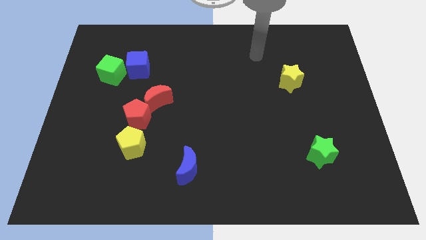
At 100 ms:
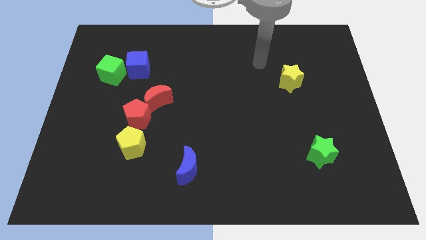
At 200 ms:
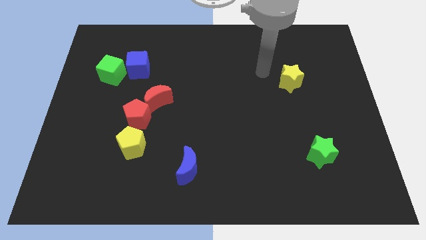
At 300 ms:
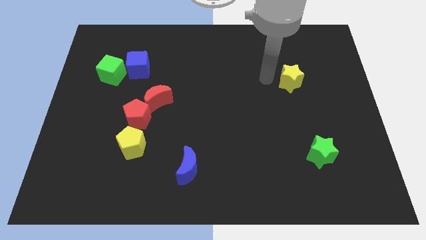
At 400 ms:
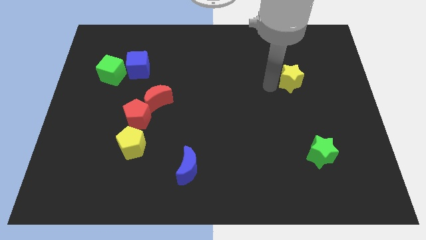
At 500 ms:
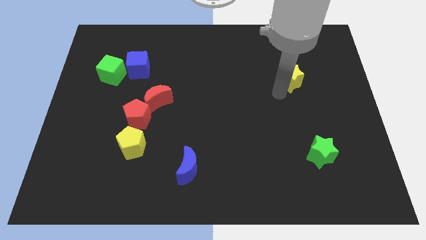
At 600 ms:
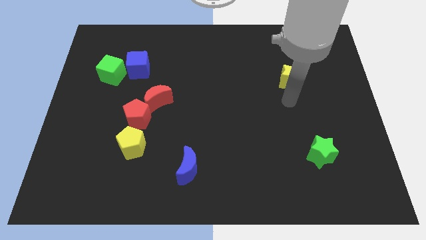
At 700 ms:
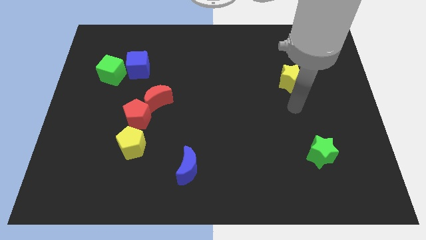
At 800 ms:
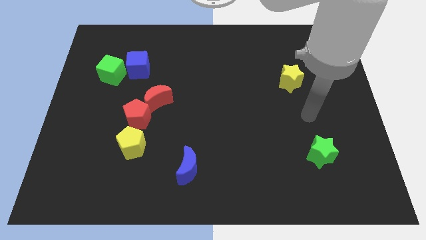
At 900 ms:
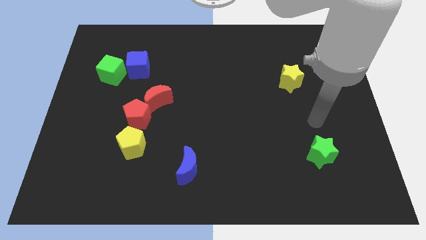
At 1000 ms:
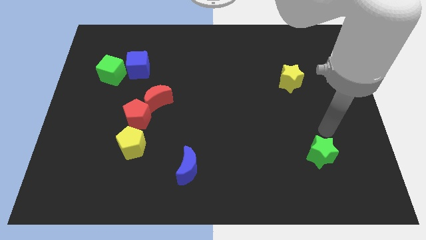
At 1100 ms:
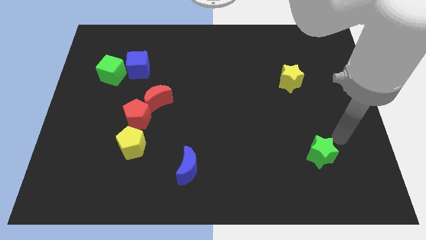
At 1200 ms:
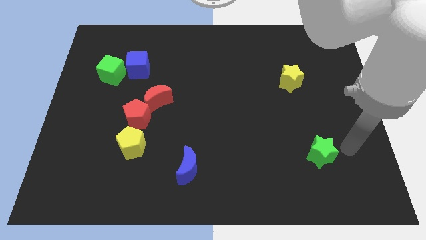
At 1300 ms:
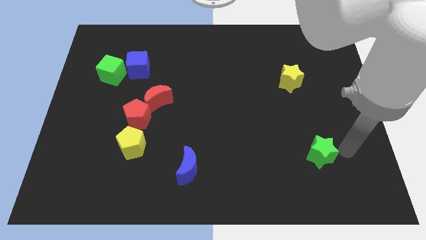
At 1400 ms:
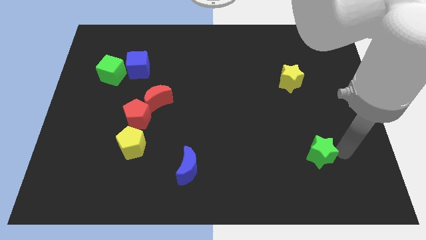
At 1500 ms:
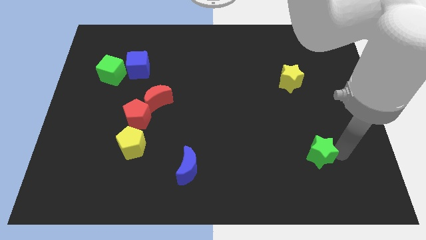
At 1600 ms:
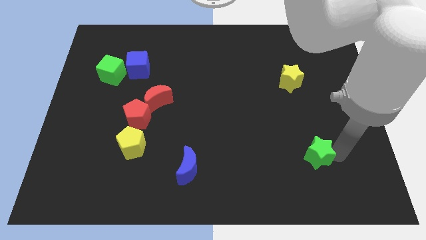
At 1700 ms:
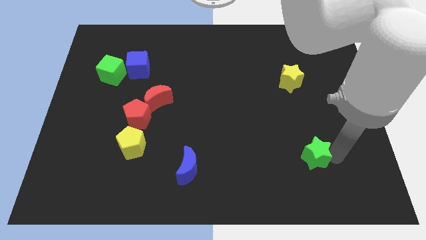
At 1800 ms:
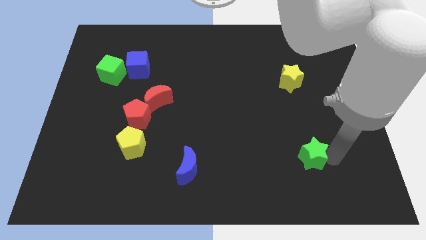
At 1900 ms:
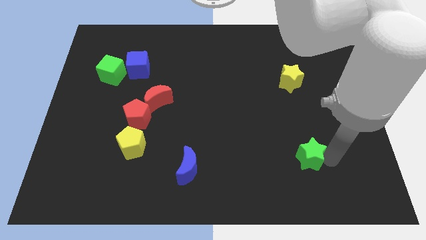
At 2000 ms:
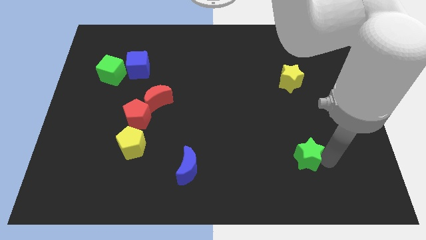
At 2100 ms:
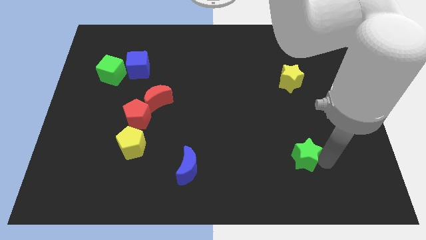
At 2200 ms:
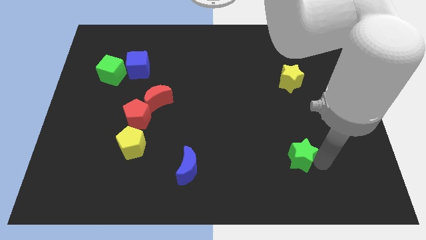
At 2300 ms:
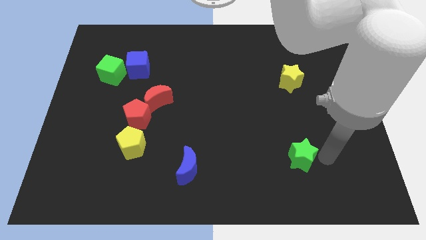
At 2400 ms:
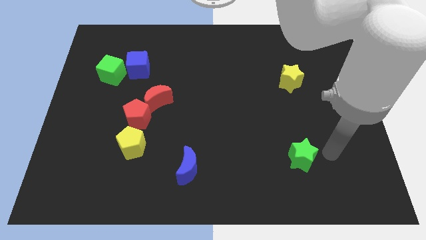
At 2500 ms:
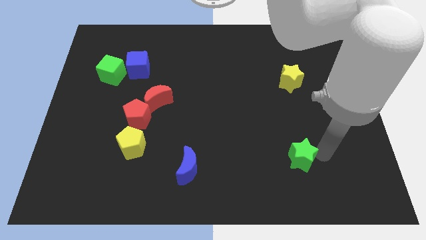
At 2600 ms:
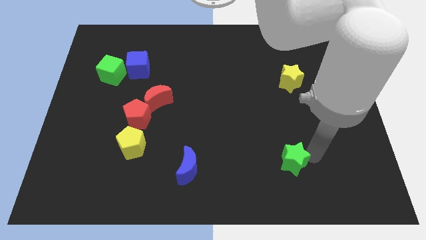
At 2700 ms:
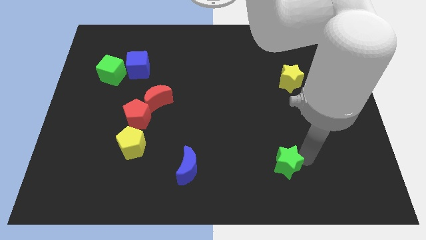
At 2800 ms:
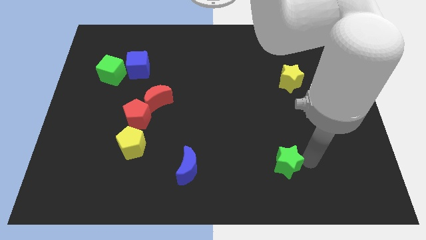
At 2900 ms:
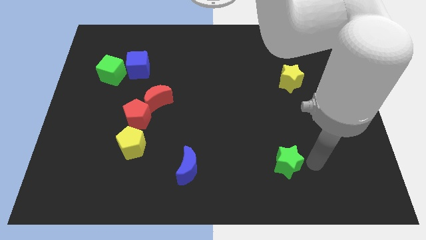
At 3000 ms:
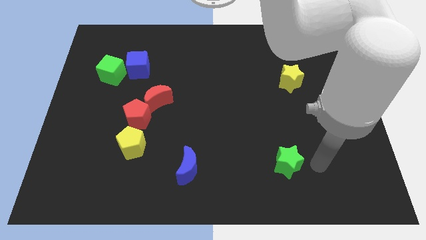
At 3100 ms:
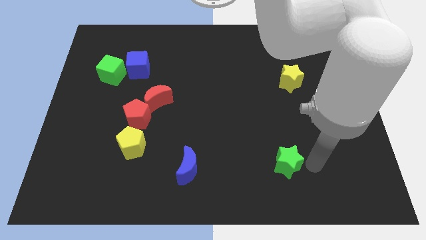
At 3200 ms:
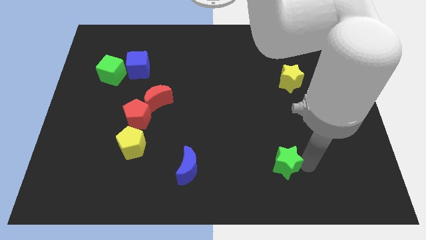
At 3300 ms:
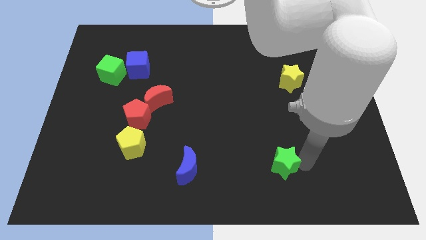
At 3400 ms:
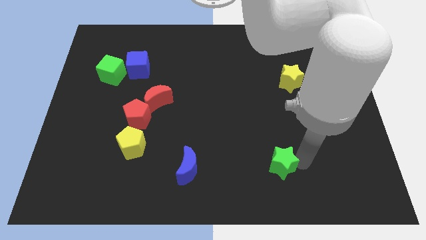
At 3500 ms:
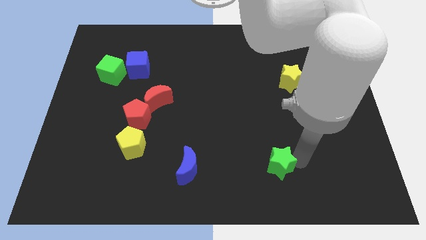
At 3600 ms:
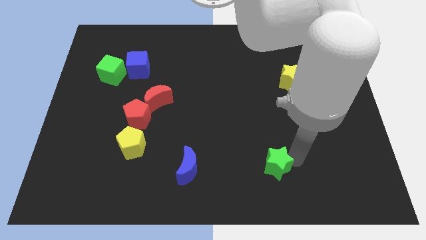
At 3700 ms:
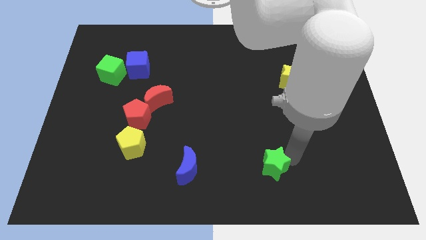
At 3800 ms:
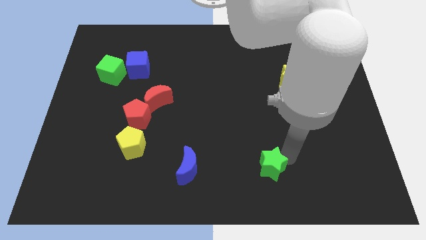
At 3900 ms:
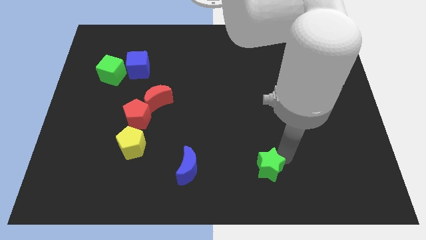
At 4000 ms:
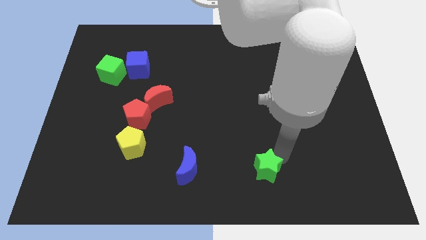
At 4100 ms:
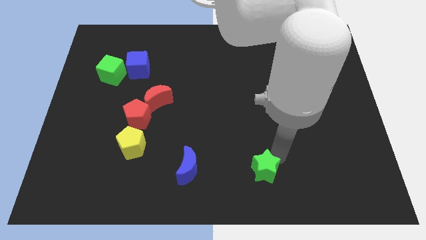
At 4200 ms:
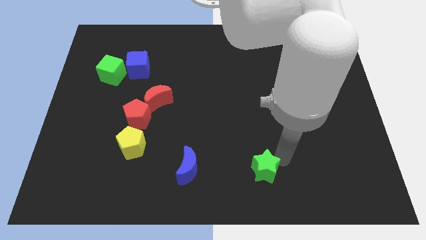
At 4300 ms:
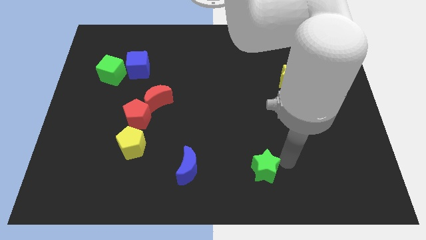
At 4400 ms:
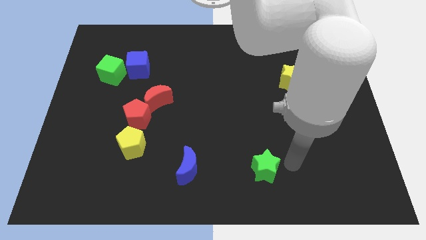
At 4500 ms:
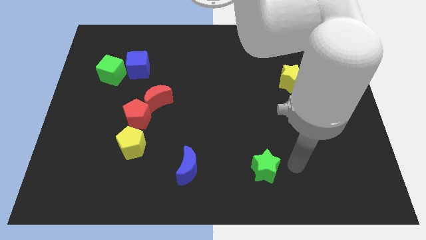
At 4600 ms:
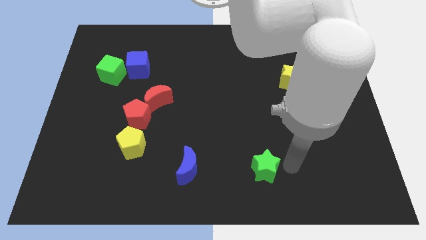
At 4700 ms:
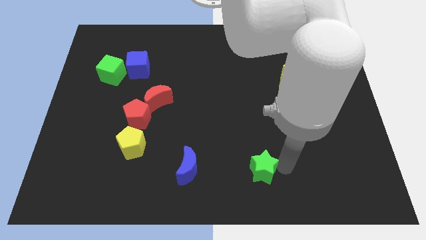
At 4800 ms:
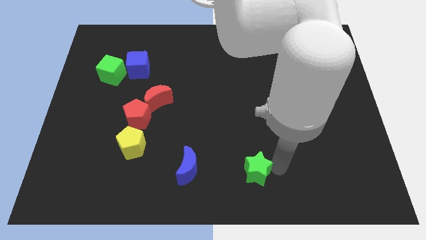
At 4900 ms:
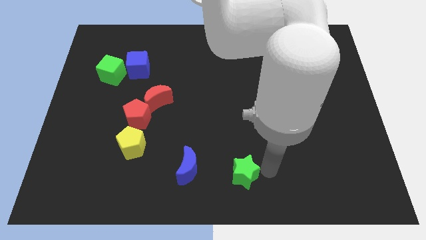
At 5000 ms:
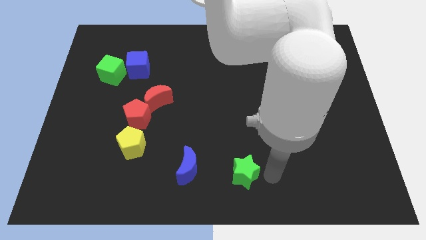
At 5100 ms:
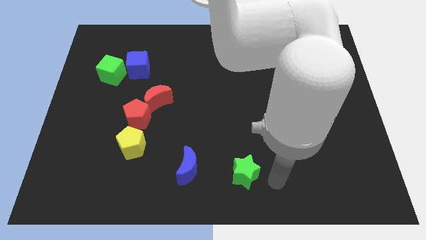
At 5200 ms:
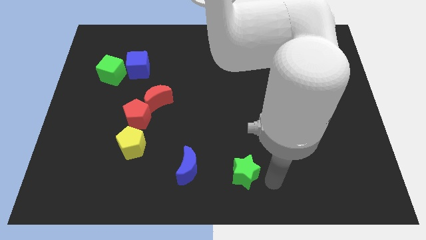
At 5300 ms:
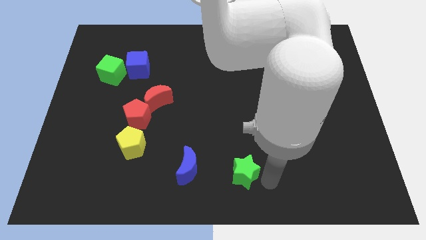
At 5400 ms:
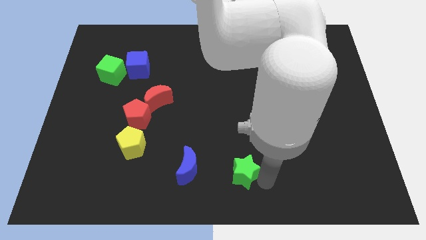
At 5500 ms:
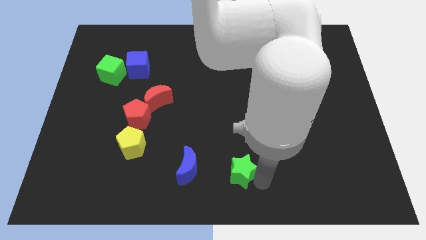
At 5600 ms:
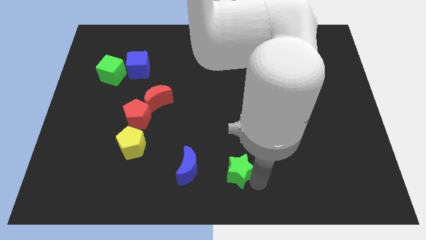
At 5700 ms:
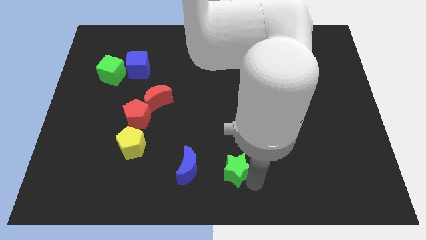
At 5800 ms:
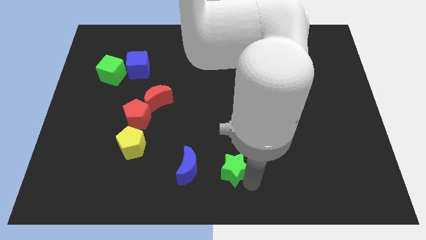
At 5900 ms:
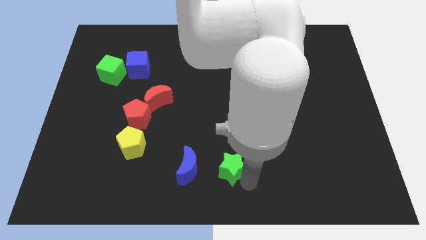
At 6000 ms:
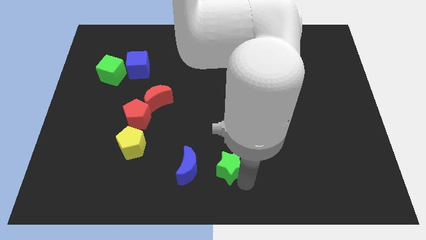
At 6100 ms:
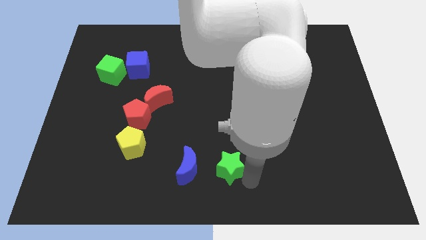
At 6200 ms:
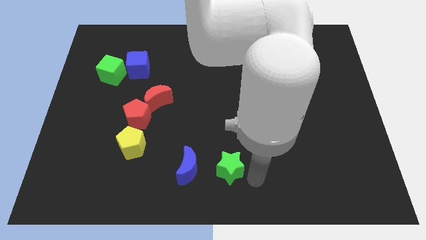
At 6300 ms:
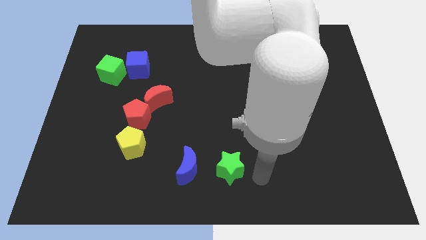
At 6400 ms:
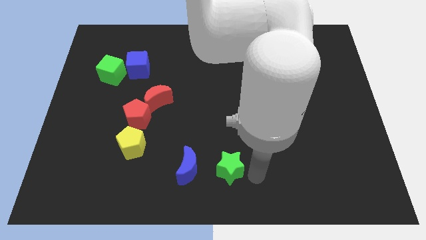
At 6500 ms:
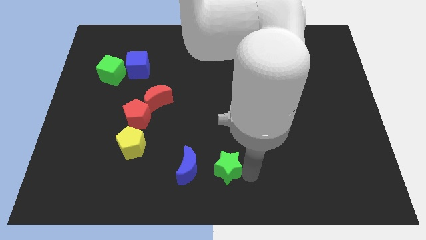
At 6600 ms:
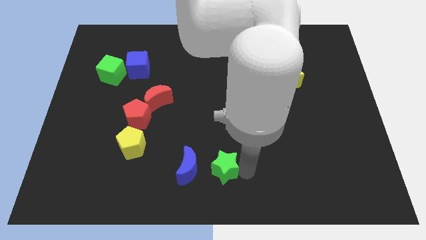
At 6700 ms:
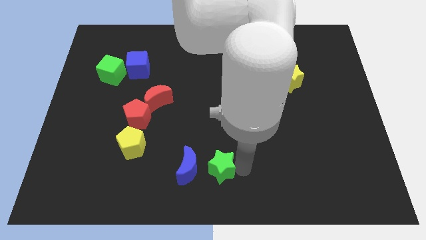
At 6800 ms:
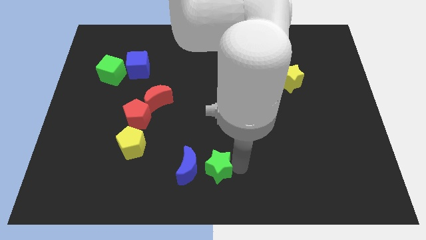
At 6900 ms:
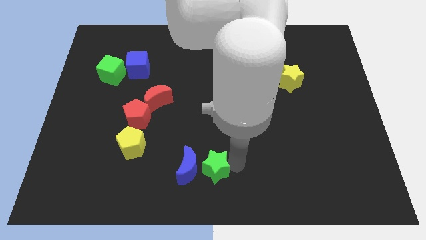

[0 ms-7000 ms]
push the green star close to the blue moon

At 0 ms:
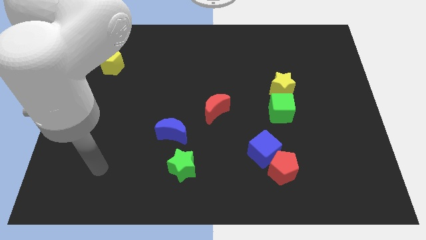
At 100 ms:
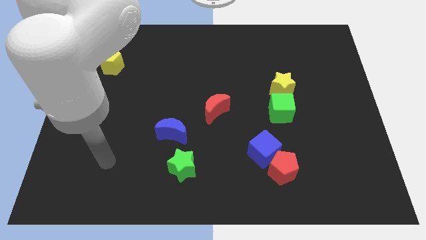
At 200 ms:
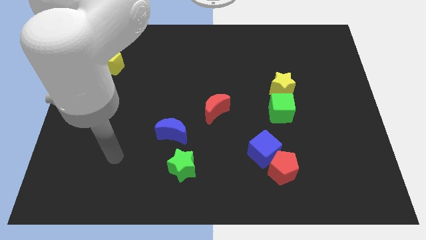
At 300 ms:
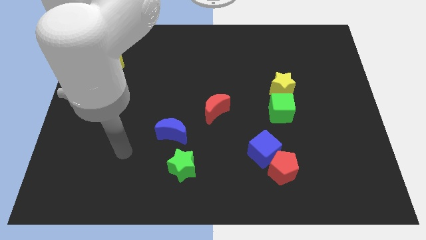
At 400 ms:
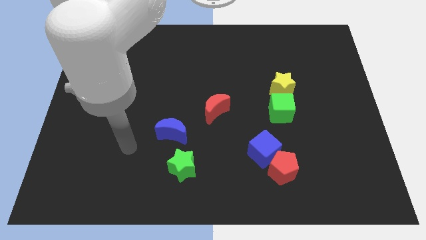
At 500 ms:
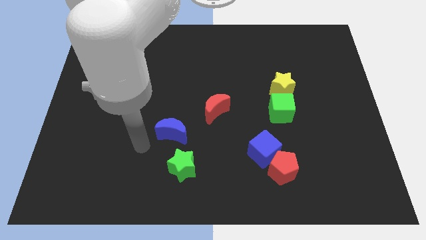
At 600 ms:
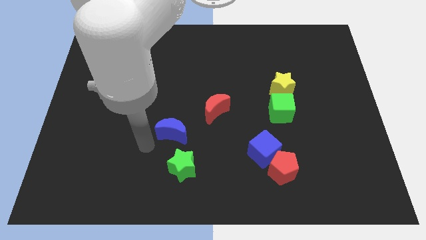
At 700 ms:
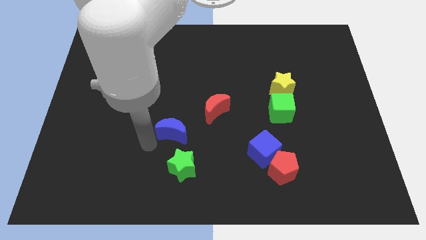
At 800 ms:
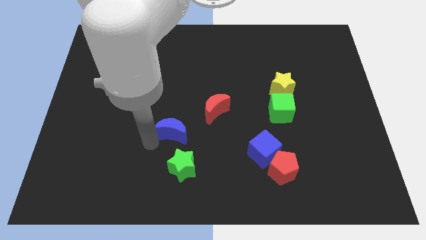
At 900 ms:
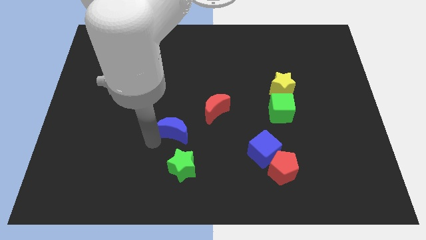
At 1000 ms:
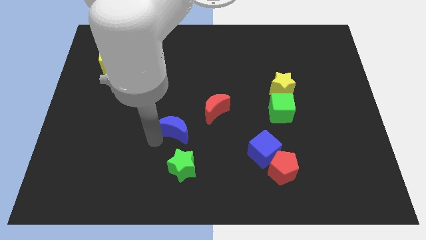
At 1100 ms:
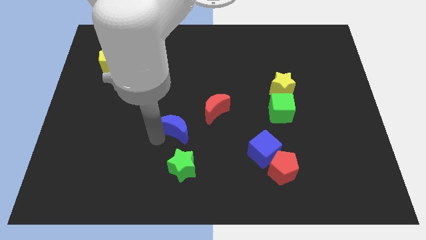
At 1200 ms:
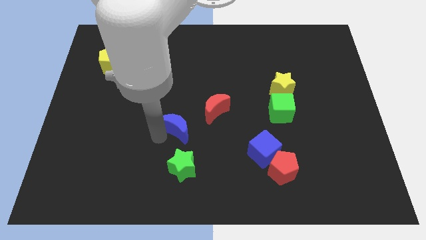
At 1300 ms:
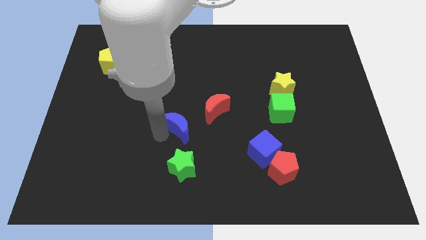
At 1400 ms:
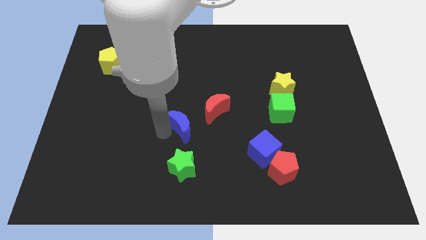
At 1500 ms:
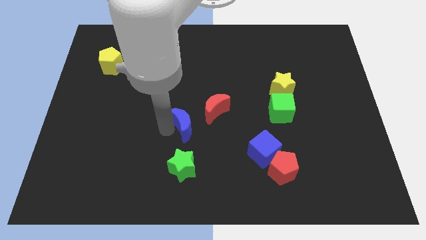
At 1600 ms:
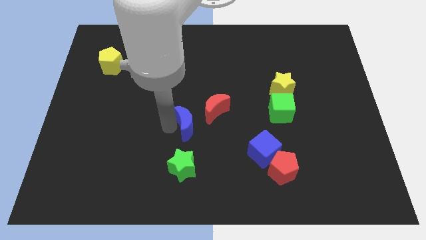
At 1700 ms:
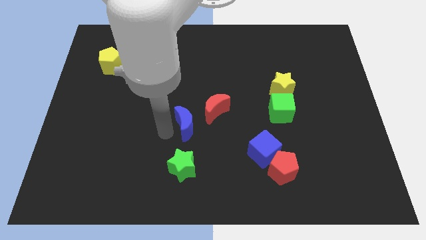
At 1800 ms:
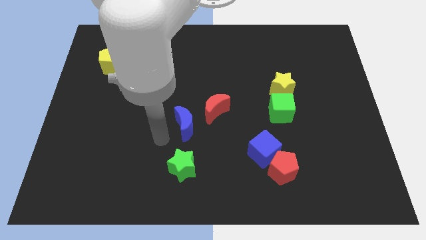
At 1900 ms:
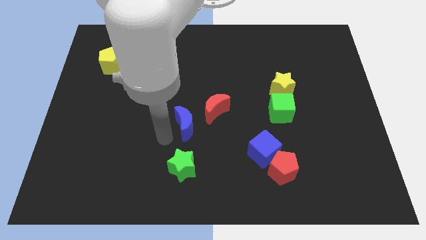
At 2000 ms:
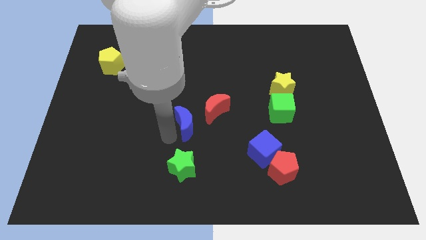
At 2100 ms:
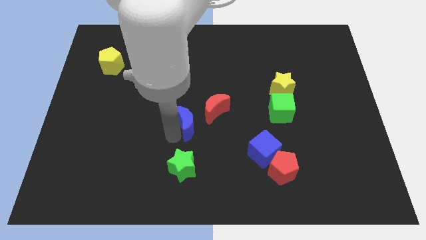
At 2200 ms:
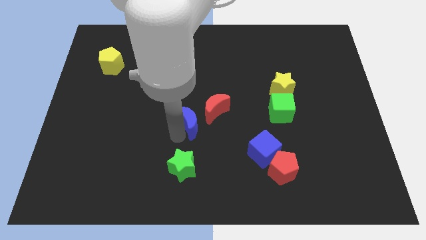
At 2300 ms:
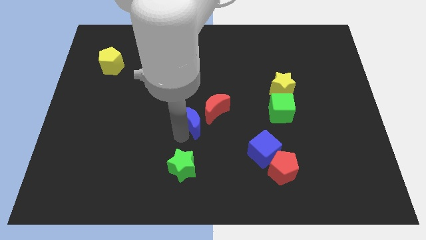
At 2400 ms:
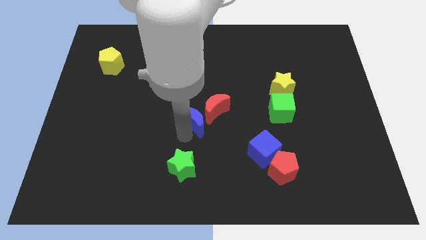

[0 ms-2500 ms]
push the blue moon to the red moon
